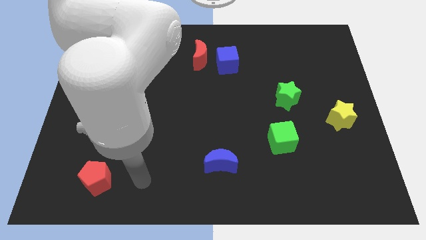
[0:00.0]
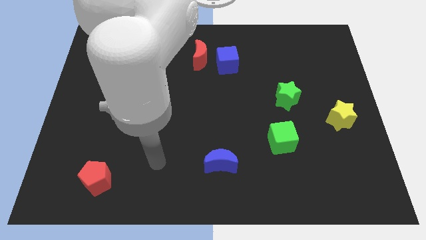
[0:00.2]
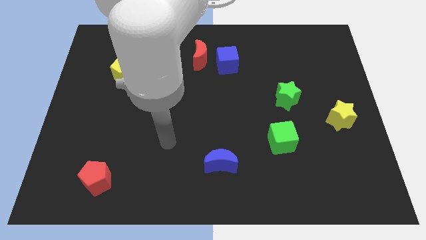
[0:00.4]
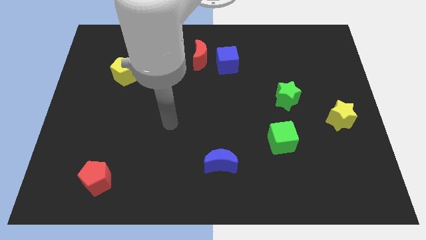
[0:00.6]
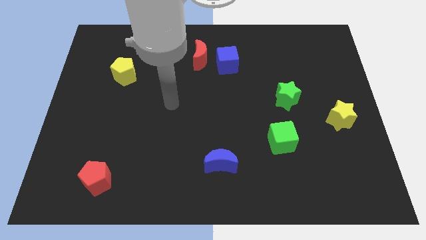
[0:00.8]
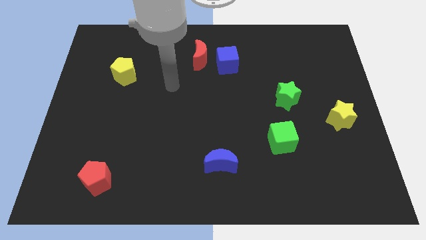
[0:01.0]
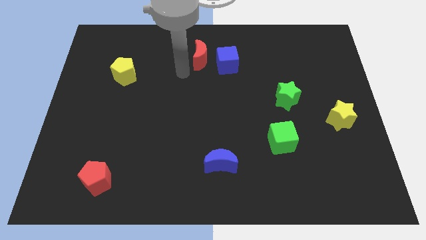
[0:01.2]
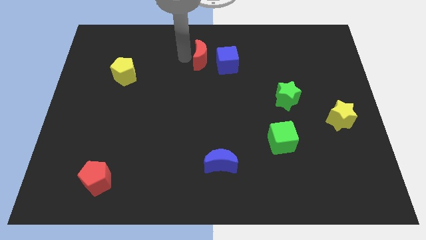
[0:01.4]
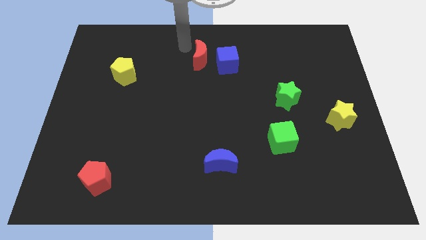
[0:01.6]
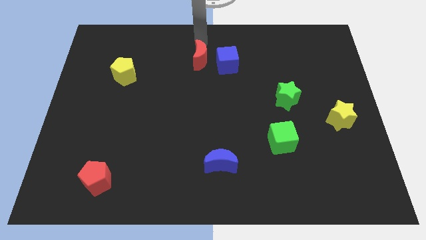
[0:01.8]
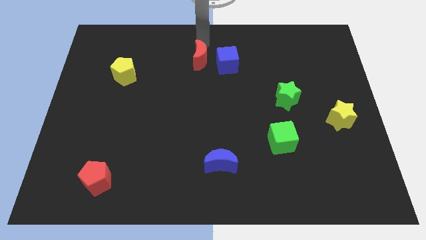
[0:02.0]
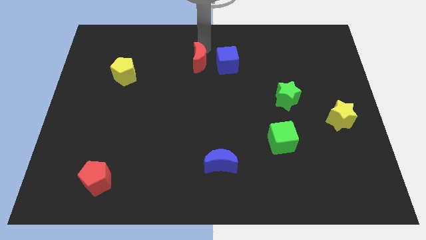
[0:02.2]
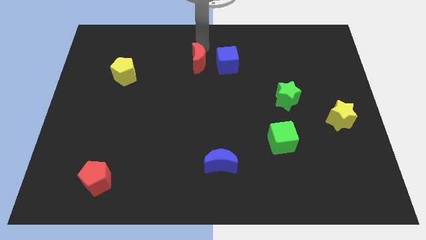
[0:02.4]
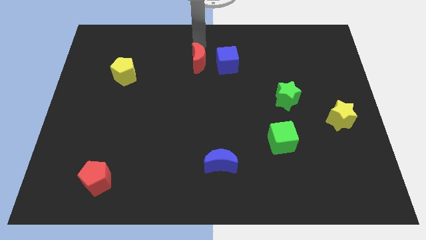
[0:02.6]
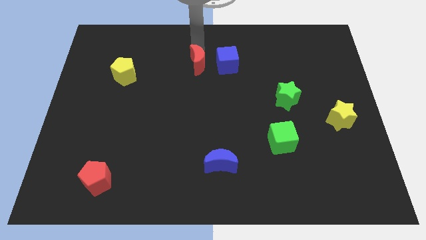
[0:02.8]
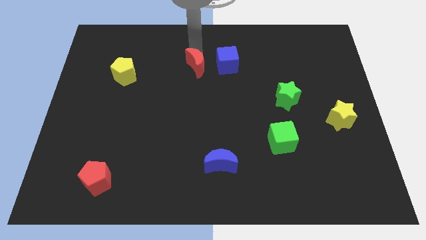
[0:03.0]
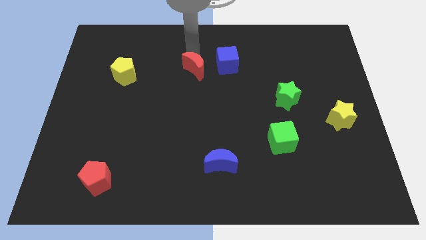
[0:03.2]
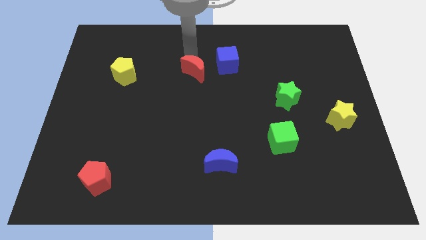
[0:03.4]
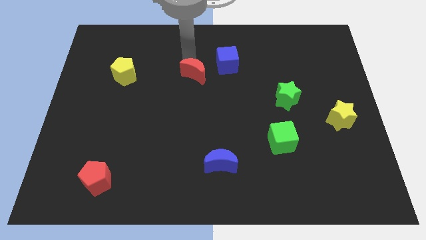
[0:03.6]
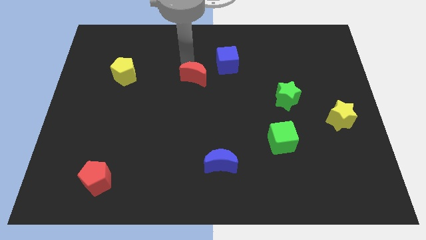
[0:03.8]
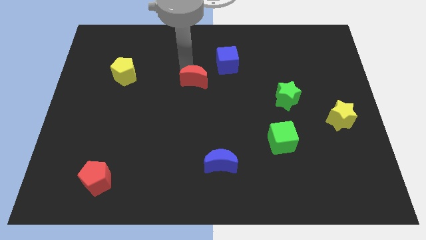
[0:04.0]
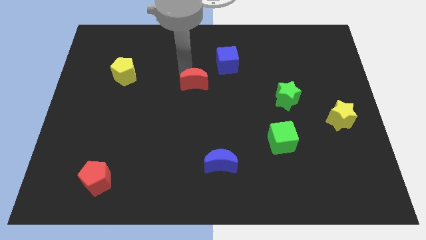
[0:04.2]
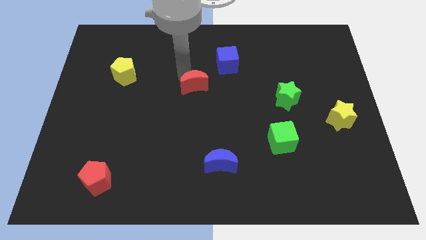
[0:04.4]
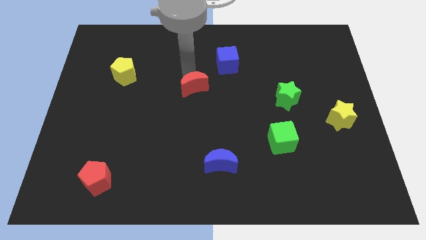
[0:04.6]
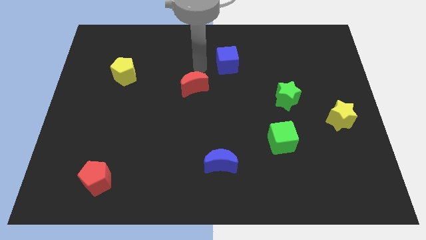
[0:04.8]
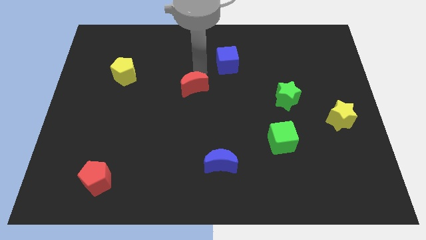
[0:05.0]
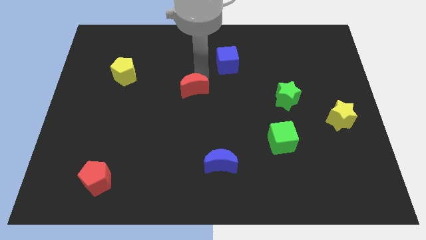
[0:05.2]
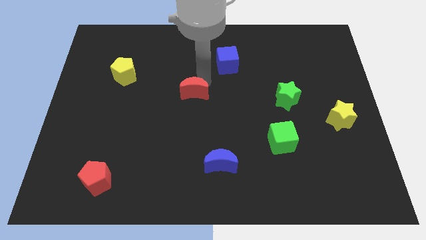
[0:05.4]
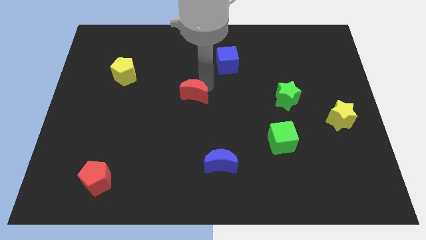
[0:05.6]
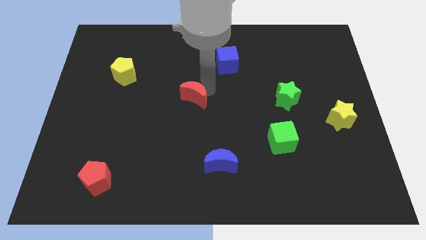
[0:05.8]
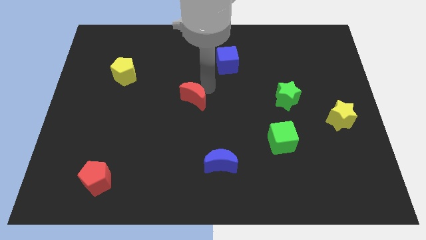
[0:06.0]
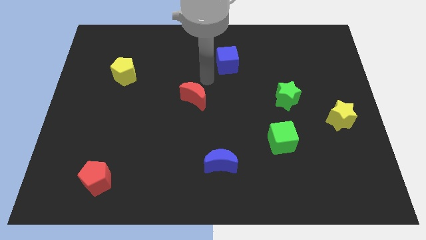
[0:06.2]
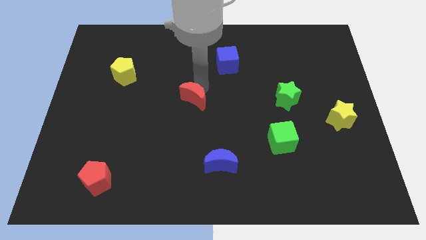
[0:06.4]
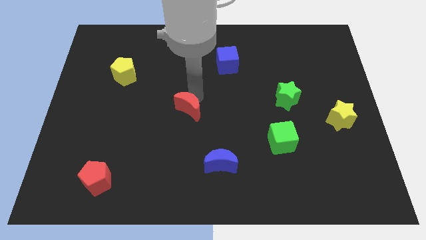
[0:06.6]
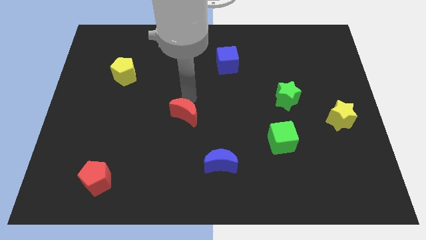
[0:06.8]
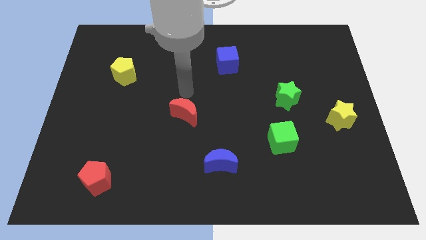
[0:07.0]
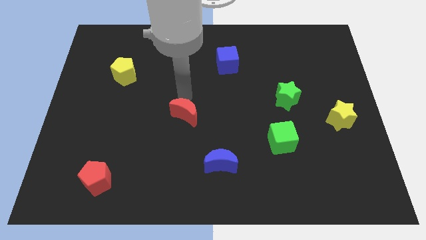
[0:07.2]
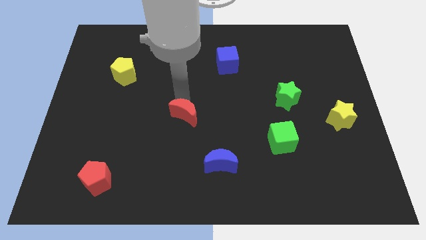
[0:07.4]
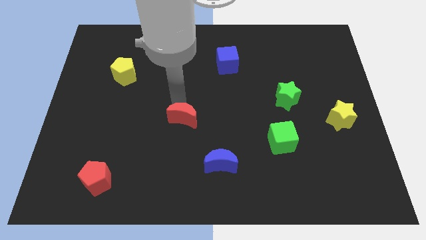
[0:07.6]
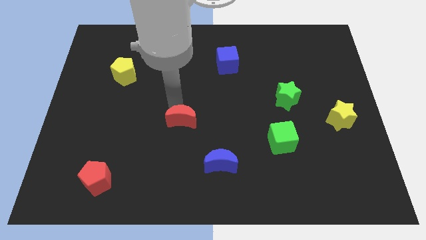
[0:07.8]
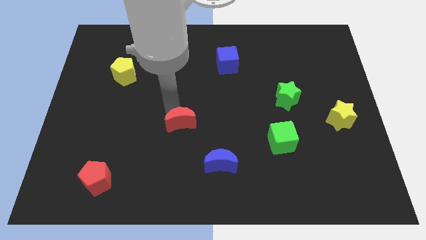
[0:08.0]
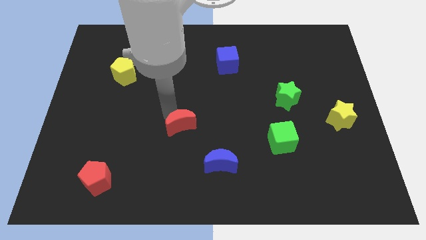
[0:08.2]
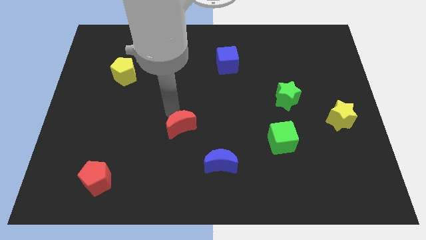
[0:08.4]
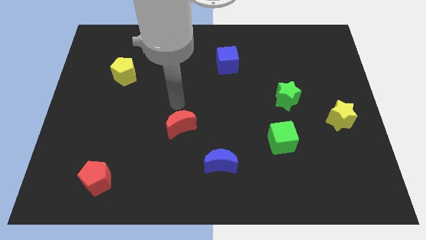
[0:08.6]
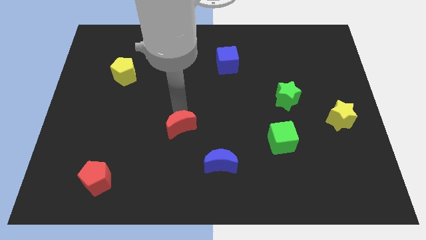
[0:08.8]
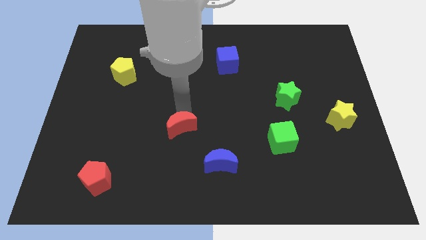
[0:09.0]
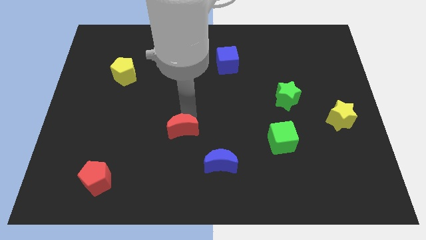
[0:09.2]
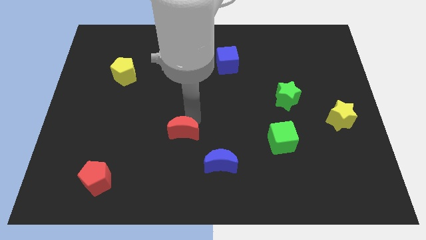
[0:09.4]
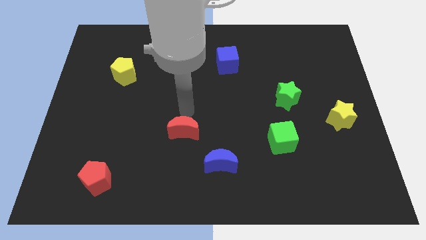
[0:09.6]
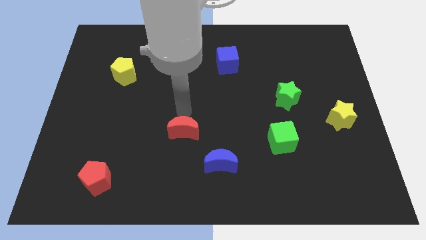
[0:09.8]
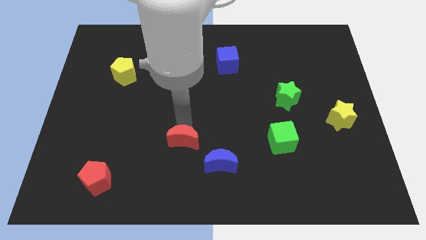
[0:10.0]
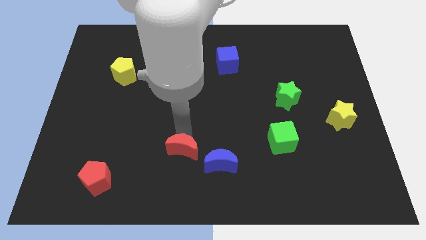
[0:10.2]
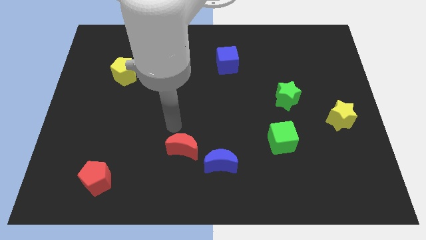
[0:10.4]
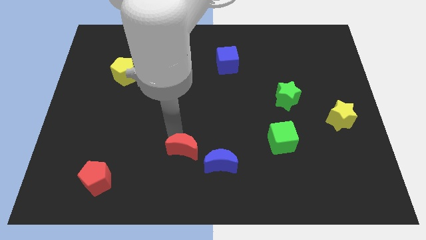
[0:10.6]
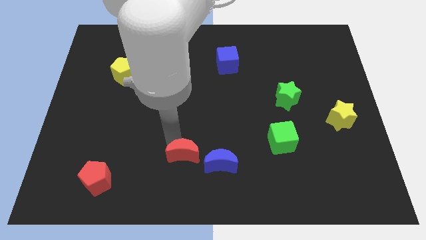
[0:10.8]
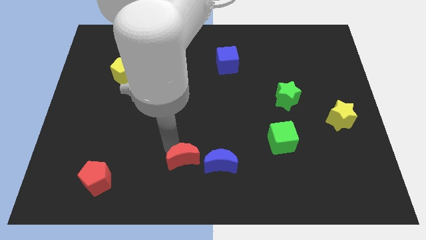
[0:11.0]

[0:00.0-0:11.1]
move the red moon to the bottom

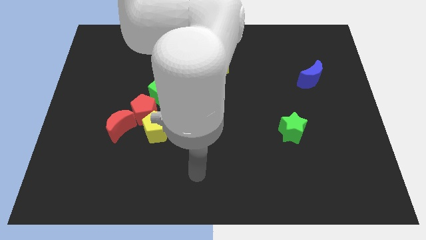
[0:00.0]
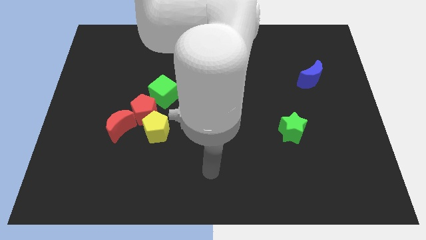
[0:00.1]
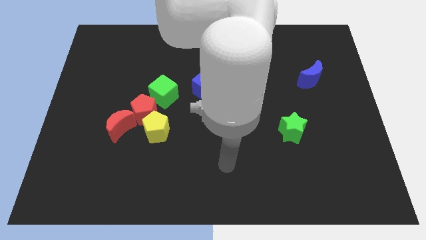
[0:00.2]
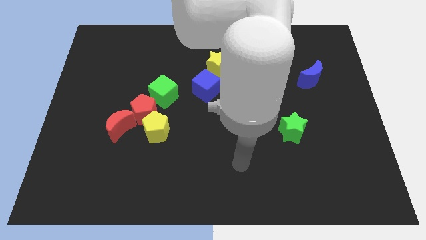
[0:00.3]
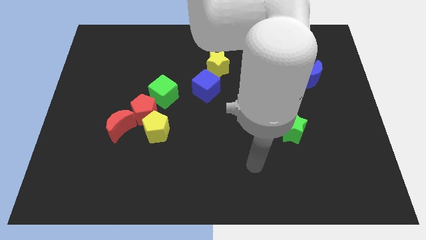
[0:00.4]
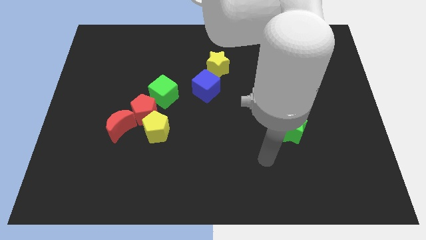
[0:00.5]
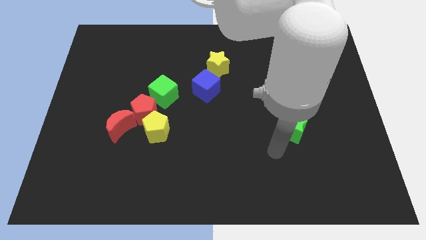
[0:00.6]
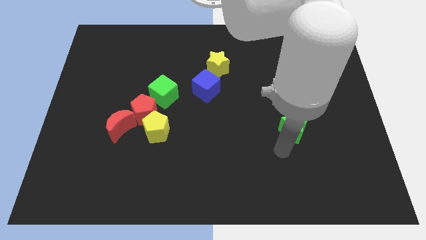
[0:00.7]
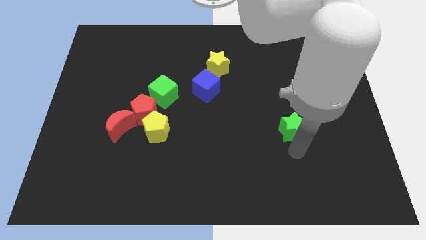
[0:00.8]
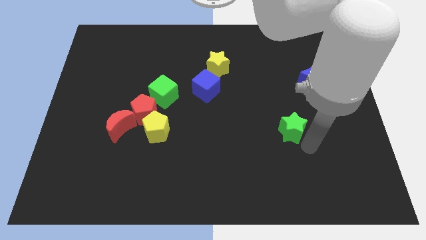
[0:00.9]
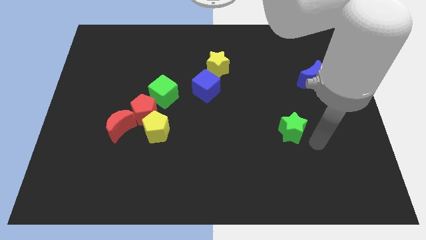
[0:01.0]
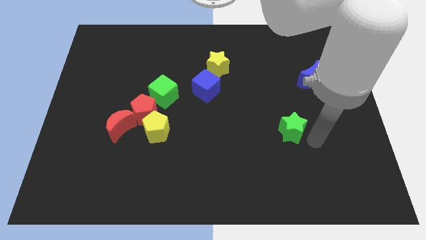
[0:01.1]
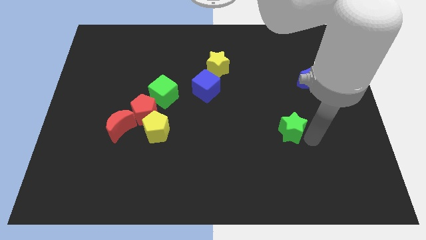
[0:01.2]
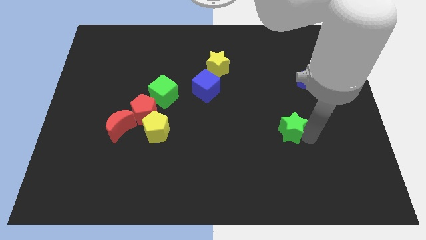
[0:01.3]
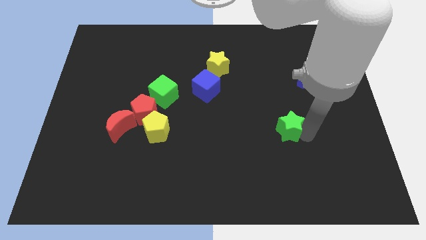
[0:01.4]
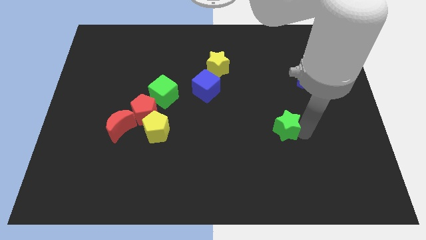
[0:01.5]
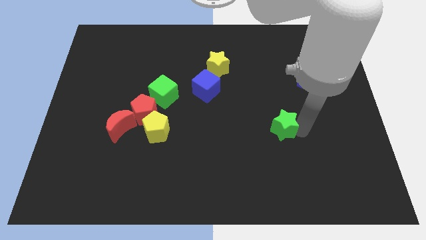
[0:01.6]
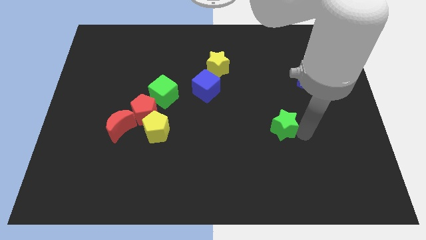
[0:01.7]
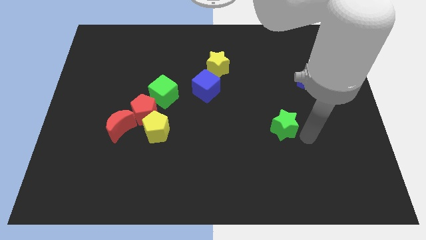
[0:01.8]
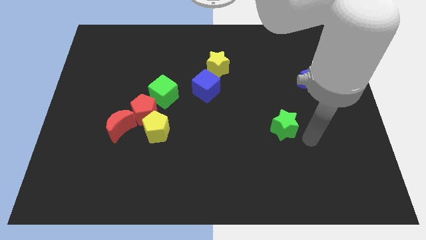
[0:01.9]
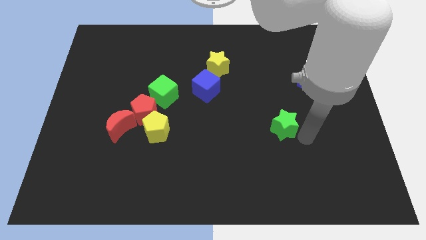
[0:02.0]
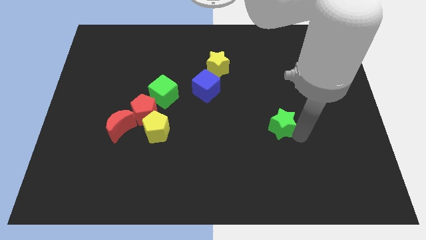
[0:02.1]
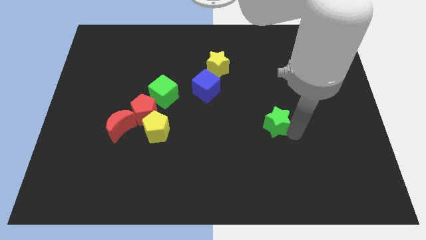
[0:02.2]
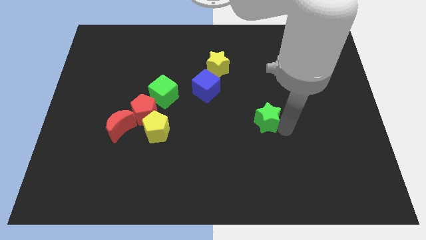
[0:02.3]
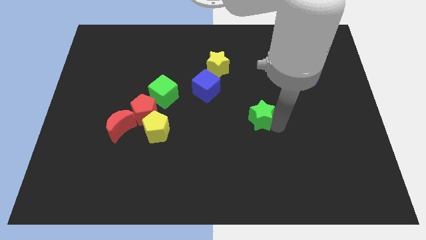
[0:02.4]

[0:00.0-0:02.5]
push the green star to the center of the board
